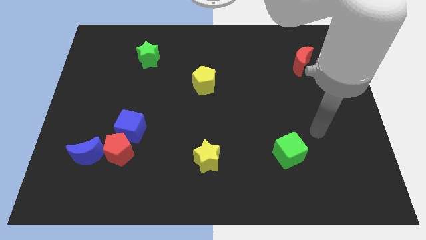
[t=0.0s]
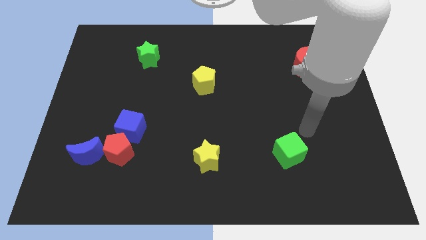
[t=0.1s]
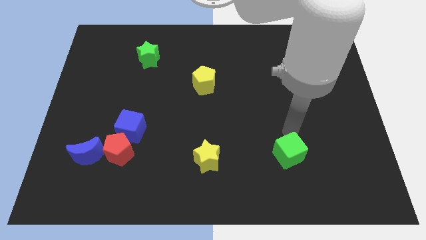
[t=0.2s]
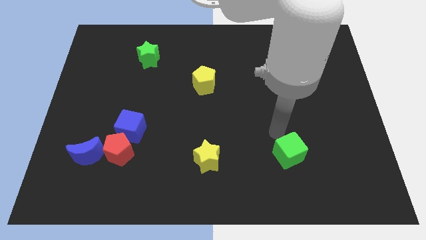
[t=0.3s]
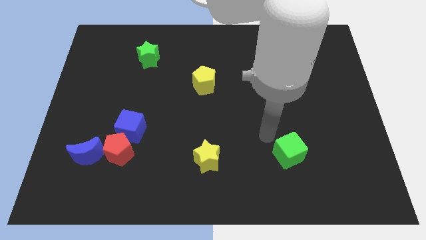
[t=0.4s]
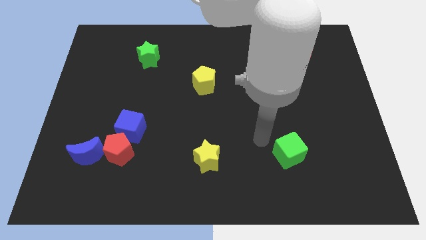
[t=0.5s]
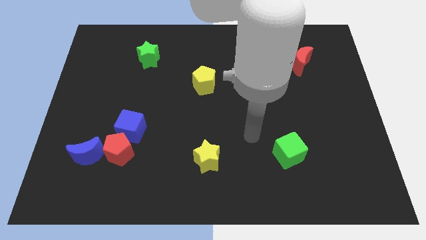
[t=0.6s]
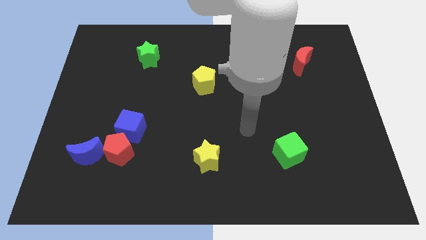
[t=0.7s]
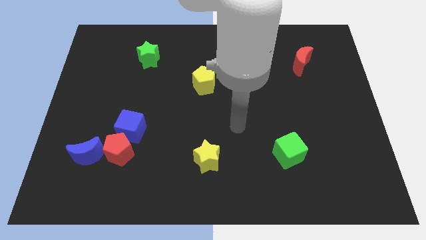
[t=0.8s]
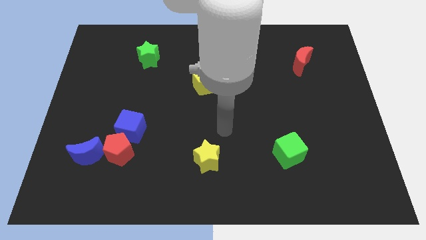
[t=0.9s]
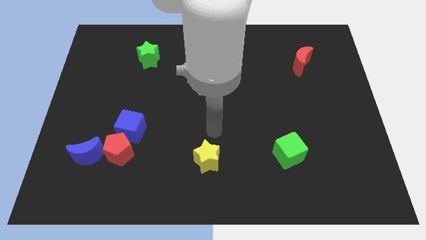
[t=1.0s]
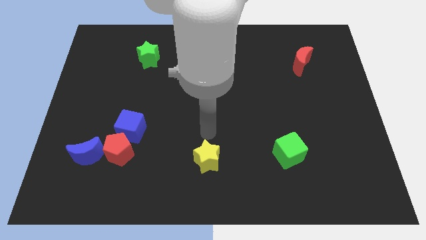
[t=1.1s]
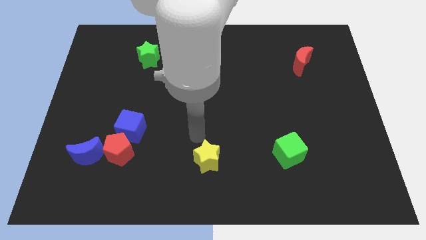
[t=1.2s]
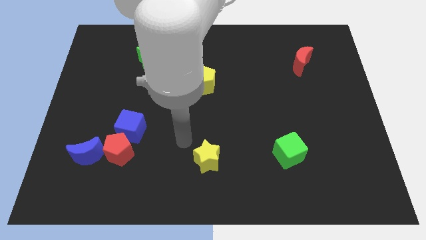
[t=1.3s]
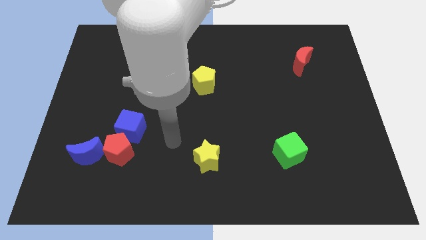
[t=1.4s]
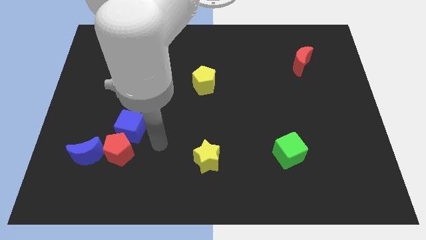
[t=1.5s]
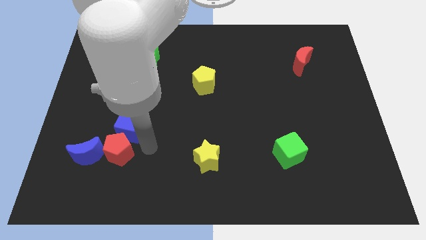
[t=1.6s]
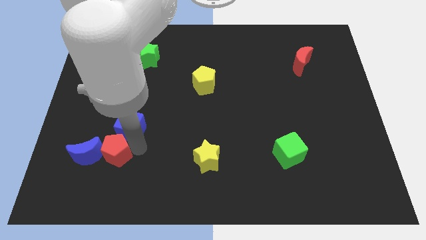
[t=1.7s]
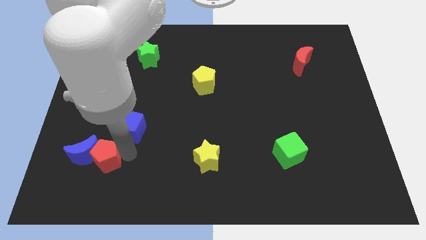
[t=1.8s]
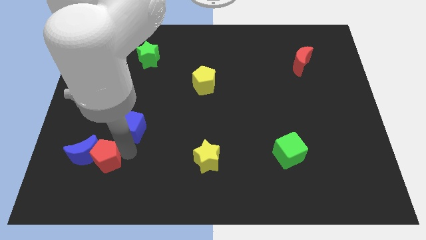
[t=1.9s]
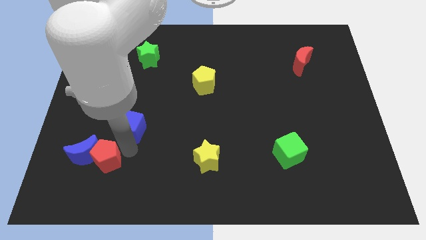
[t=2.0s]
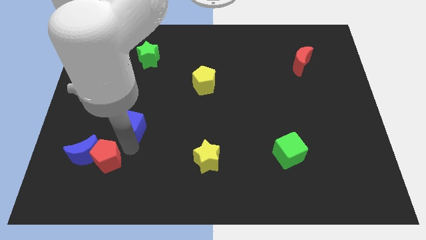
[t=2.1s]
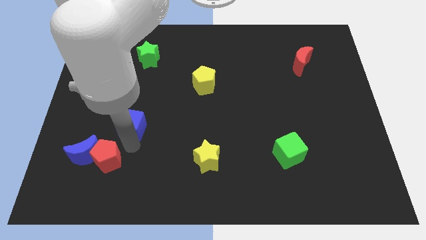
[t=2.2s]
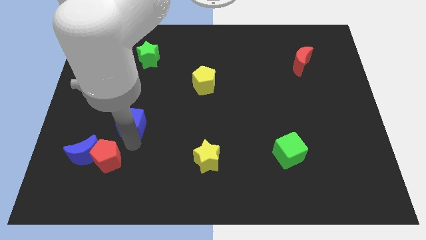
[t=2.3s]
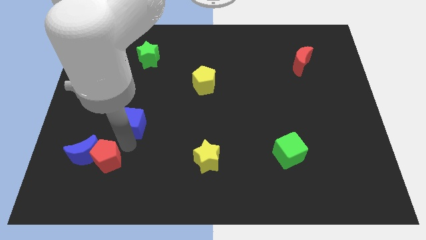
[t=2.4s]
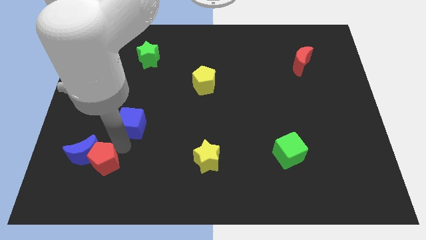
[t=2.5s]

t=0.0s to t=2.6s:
pull the blue cube apart from the red pentagon

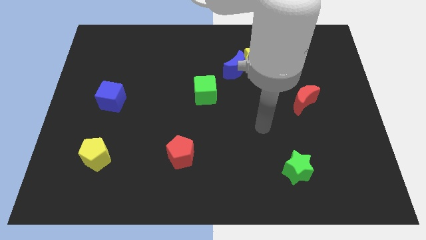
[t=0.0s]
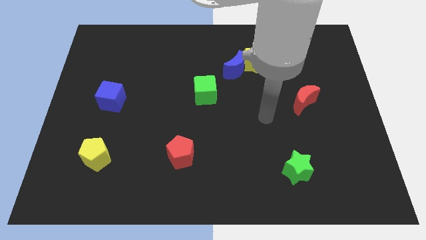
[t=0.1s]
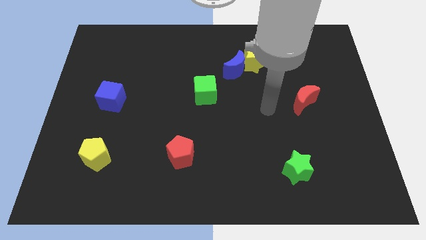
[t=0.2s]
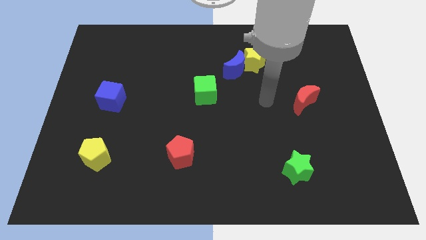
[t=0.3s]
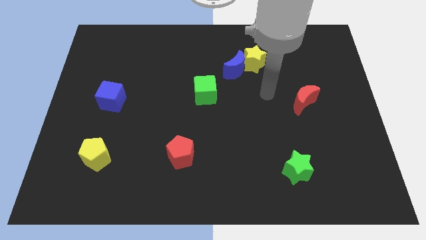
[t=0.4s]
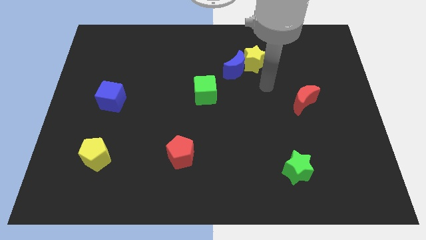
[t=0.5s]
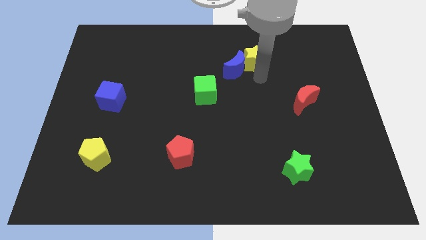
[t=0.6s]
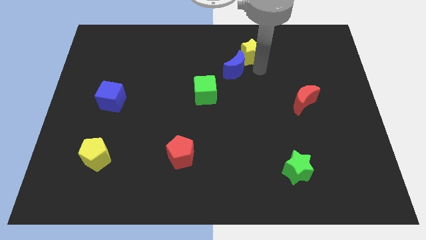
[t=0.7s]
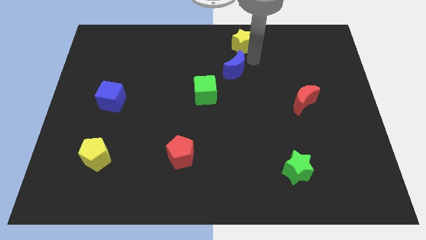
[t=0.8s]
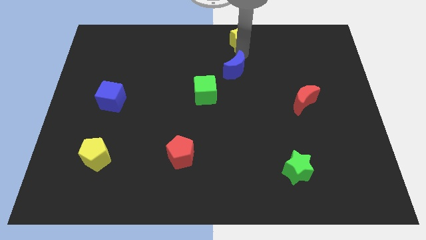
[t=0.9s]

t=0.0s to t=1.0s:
pull the blue moon apart from the yellow star

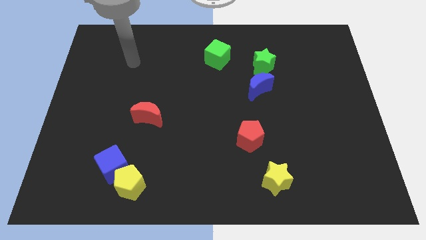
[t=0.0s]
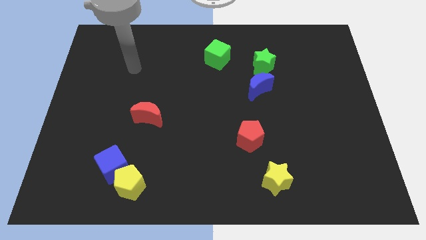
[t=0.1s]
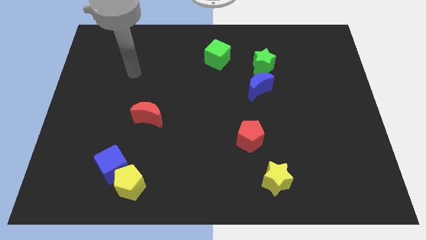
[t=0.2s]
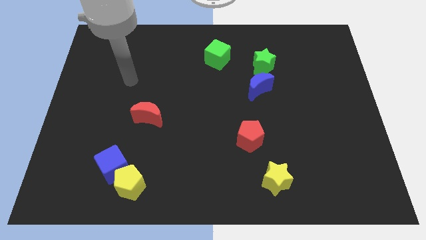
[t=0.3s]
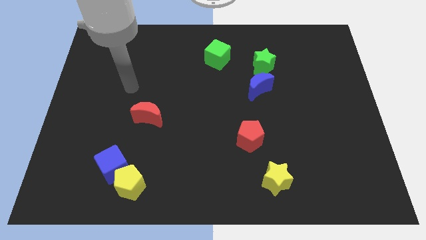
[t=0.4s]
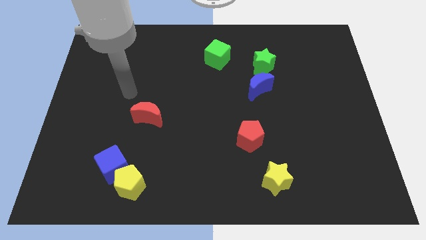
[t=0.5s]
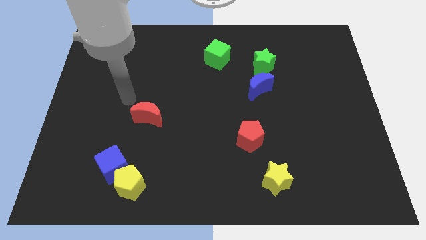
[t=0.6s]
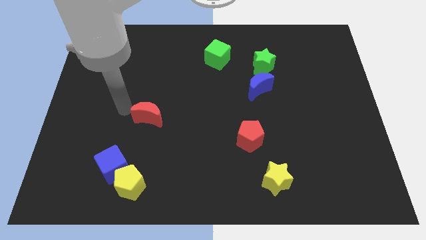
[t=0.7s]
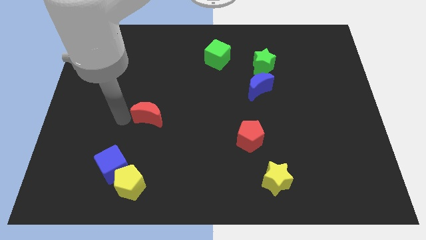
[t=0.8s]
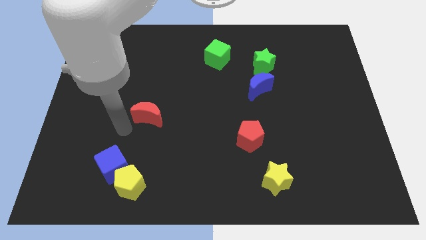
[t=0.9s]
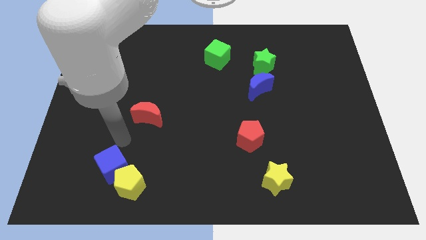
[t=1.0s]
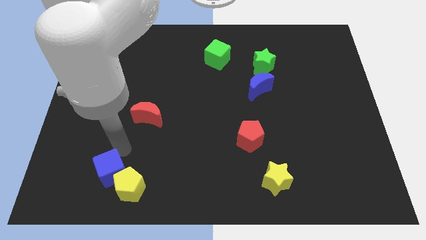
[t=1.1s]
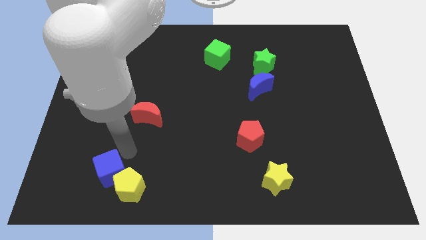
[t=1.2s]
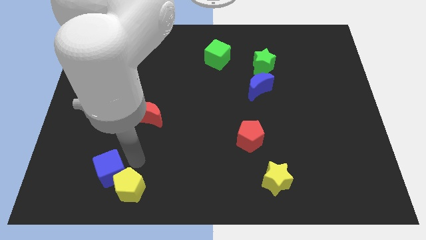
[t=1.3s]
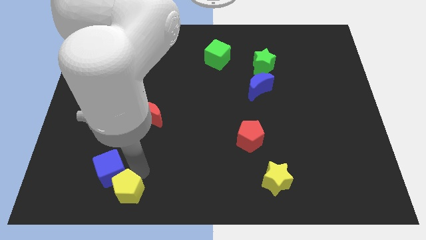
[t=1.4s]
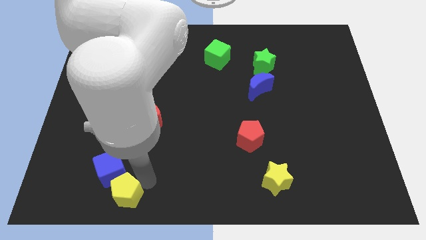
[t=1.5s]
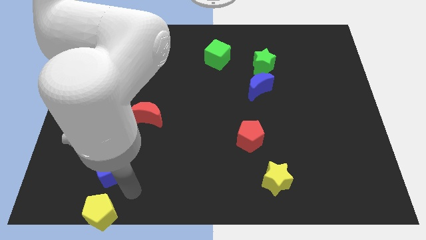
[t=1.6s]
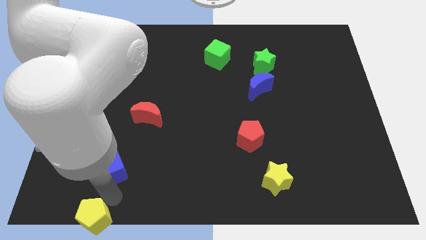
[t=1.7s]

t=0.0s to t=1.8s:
move the blue cube away from the yellow pentagon

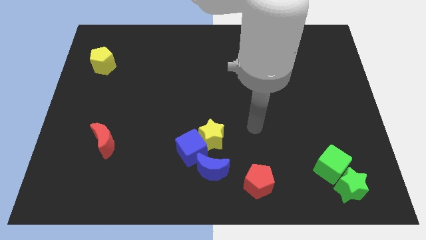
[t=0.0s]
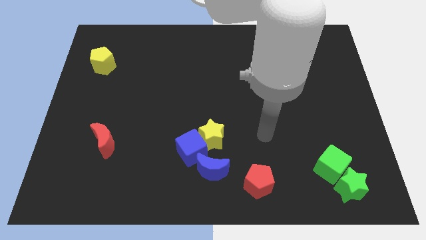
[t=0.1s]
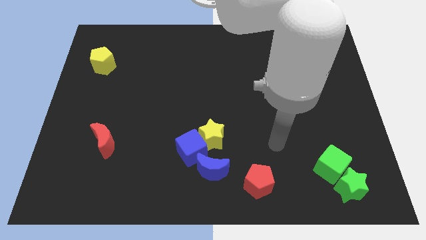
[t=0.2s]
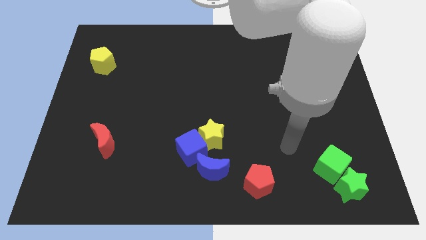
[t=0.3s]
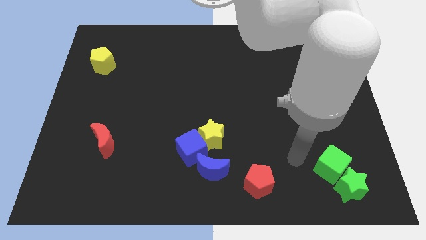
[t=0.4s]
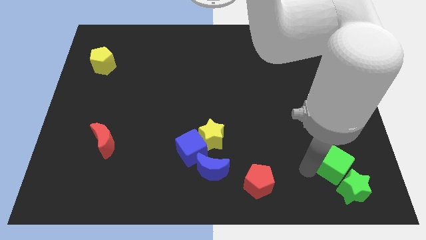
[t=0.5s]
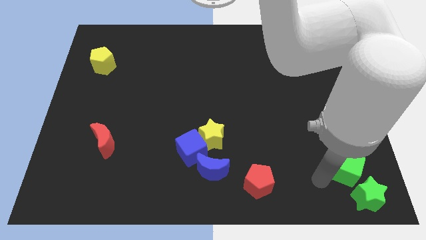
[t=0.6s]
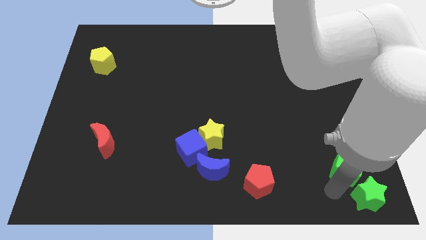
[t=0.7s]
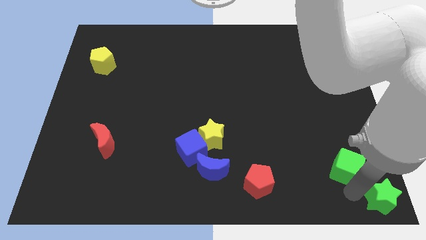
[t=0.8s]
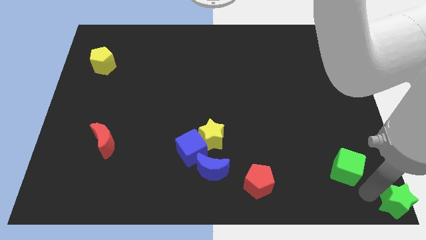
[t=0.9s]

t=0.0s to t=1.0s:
move the green cube away from the green star

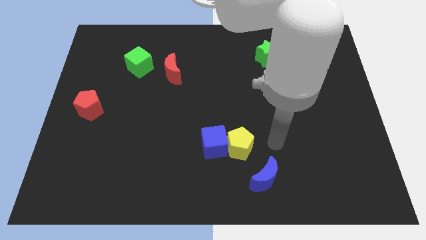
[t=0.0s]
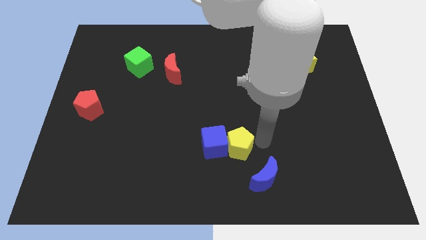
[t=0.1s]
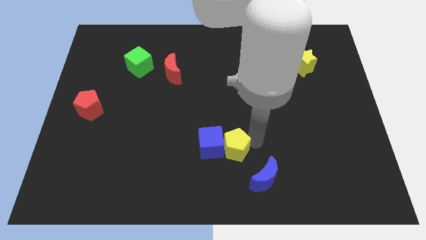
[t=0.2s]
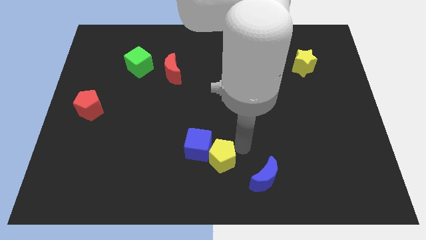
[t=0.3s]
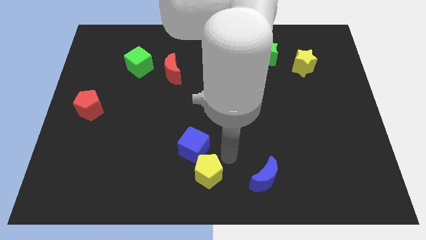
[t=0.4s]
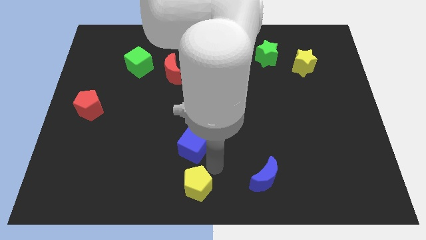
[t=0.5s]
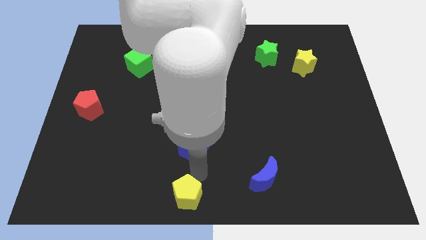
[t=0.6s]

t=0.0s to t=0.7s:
separate the blue cube from the yellow pentagon

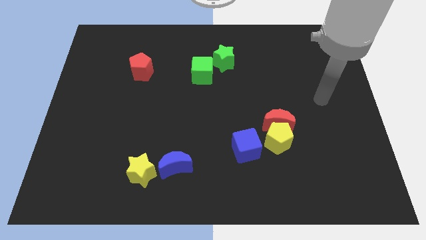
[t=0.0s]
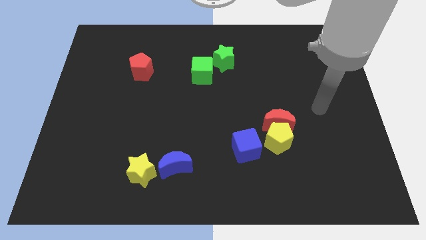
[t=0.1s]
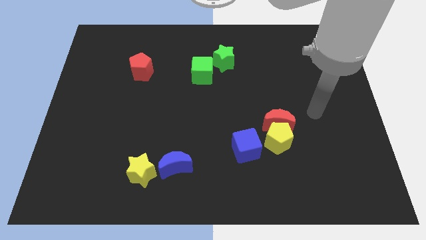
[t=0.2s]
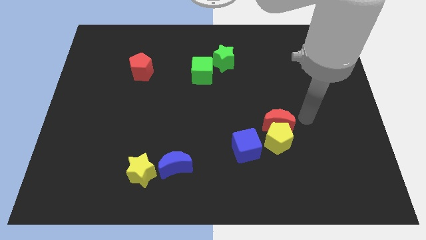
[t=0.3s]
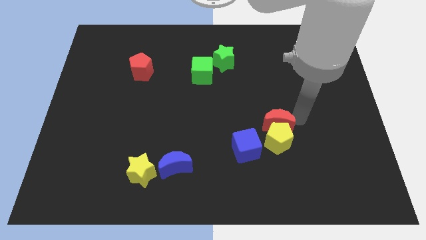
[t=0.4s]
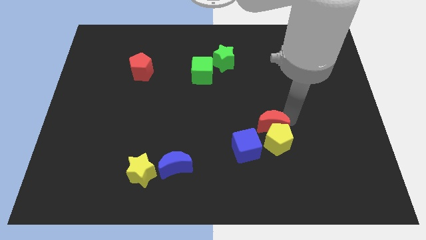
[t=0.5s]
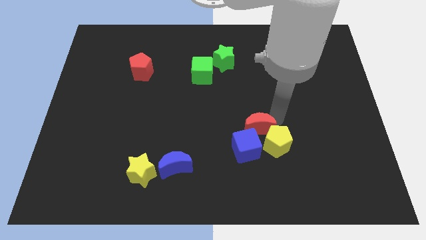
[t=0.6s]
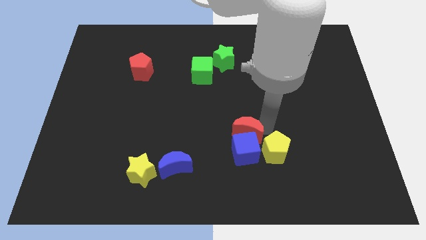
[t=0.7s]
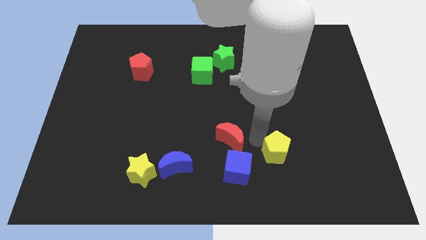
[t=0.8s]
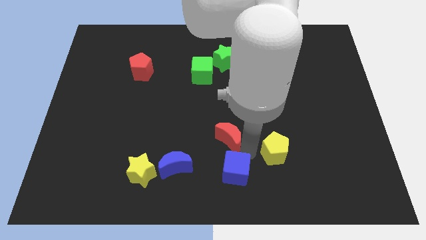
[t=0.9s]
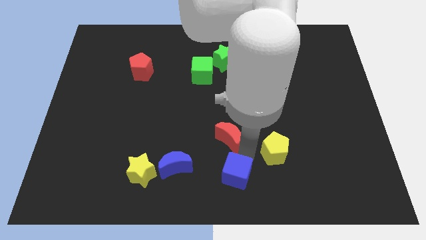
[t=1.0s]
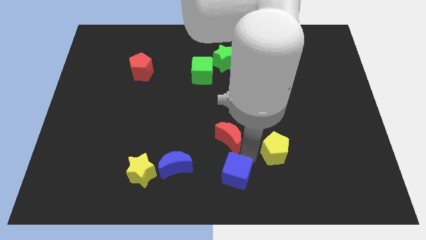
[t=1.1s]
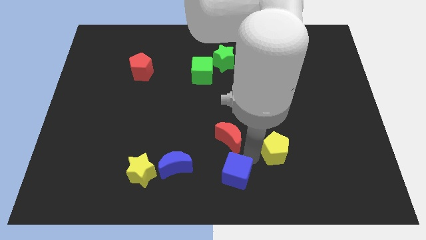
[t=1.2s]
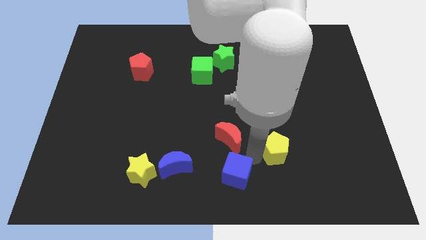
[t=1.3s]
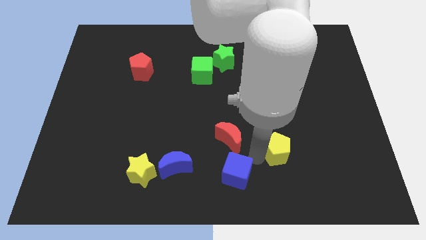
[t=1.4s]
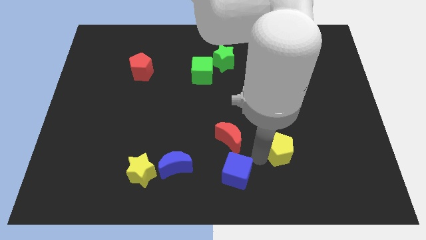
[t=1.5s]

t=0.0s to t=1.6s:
separate the yellow pentagon from the red moon and blue cube

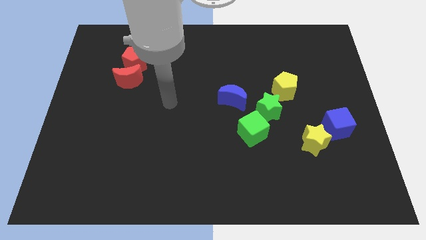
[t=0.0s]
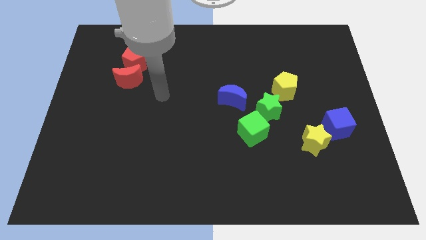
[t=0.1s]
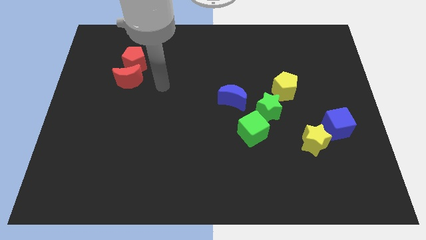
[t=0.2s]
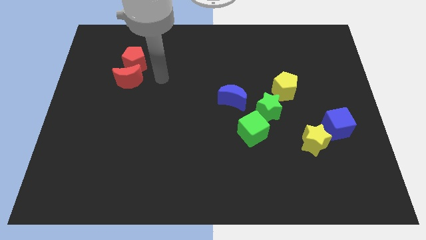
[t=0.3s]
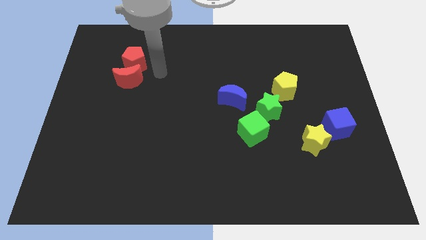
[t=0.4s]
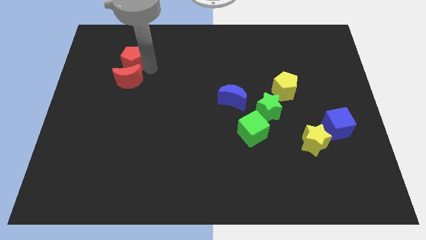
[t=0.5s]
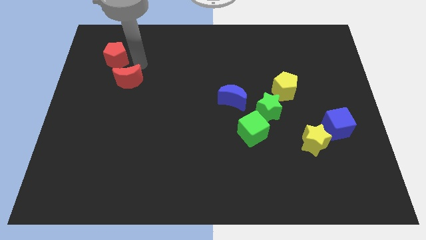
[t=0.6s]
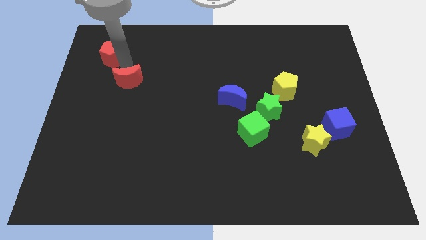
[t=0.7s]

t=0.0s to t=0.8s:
move the red moon away from the red pentagon
